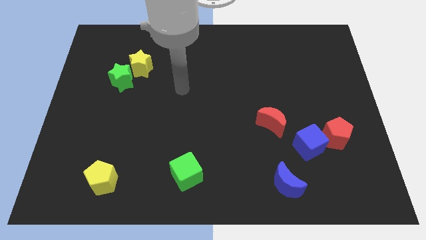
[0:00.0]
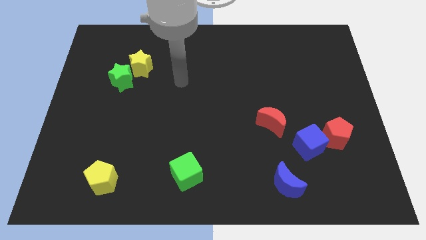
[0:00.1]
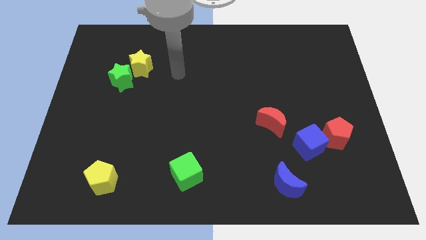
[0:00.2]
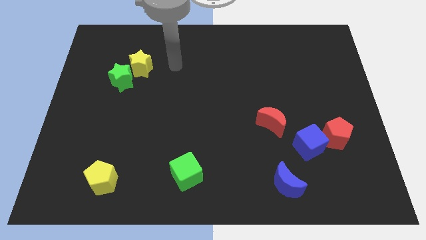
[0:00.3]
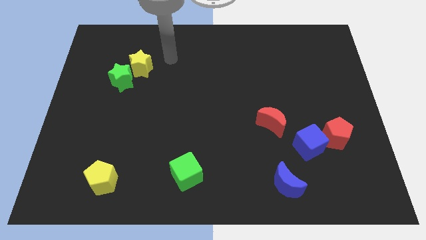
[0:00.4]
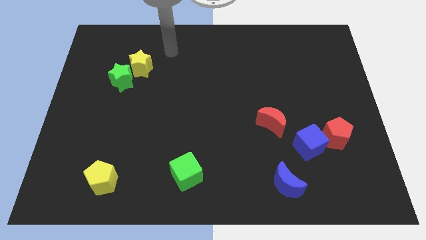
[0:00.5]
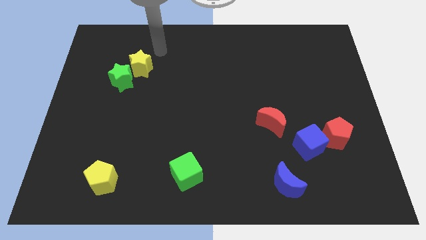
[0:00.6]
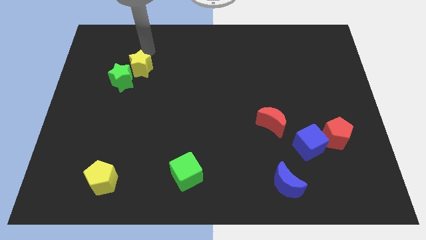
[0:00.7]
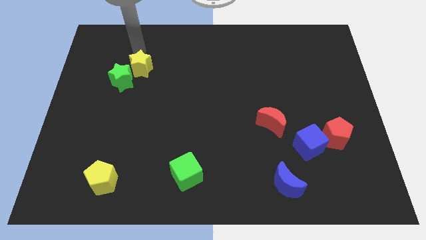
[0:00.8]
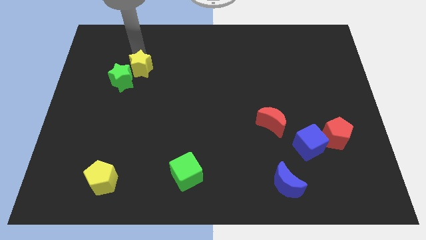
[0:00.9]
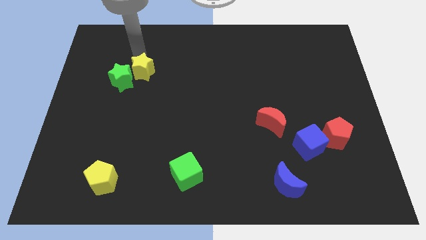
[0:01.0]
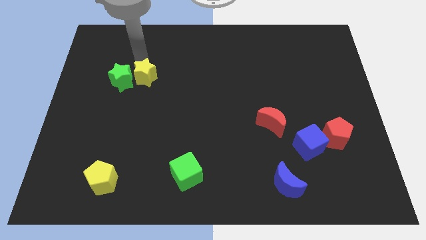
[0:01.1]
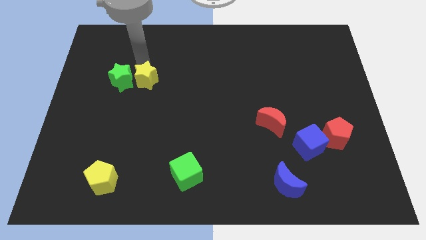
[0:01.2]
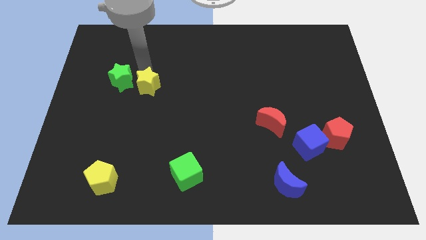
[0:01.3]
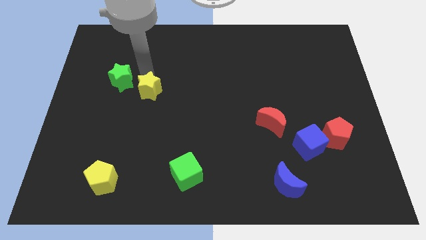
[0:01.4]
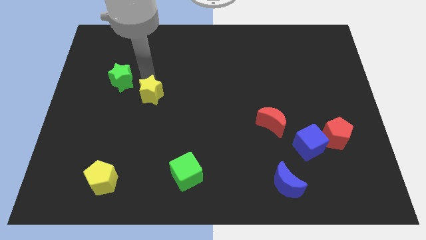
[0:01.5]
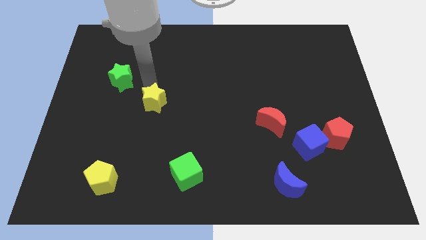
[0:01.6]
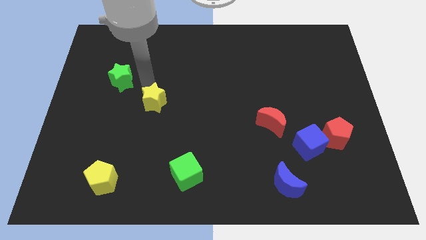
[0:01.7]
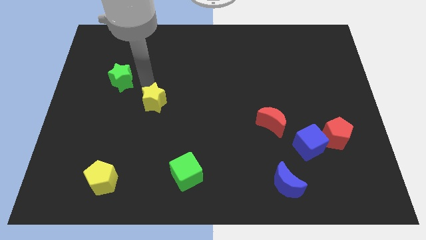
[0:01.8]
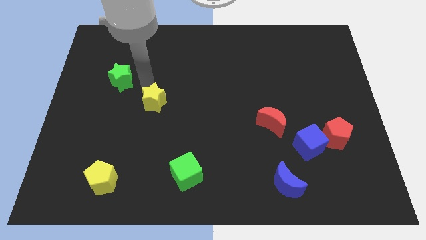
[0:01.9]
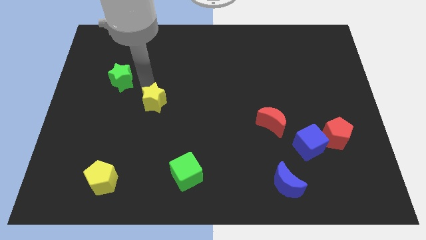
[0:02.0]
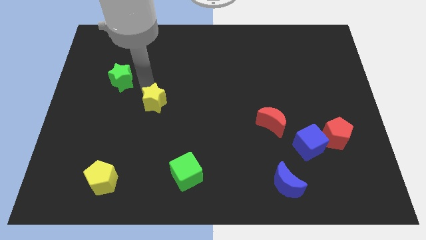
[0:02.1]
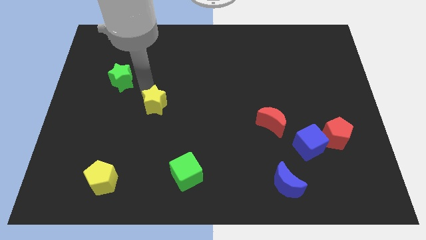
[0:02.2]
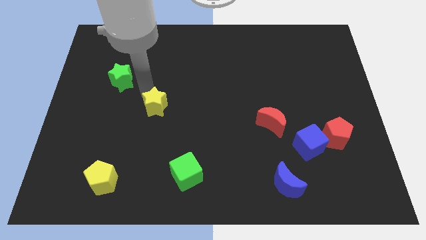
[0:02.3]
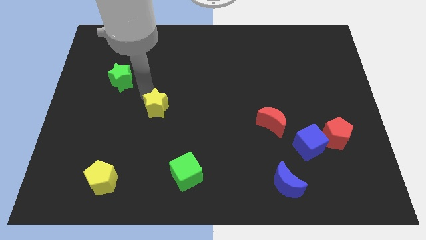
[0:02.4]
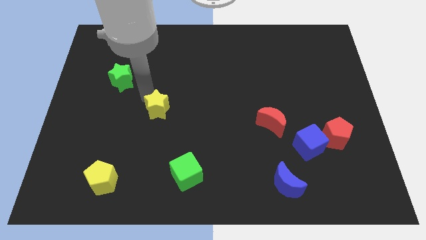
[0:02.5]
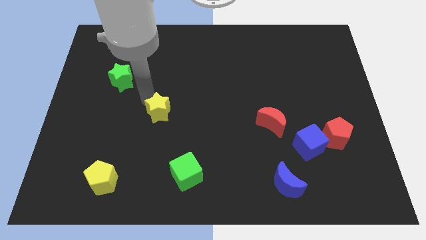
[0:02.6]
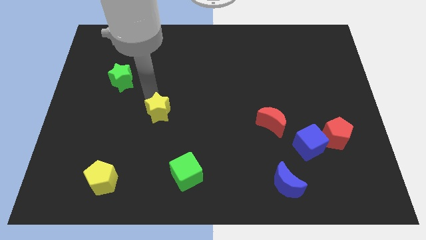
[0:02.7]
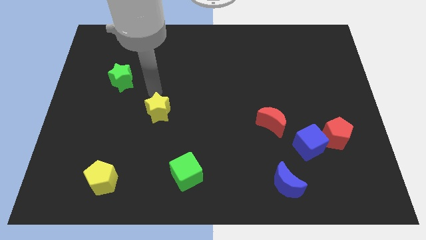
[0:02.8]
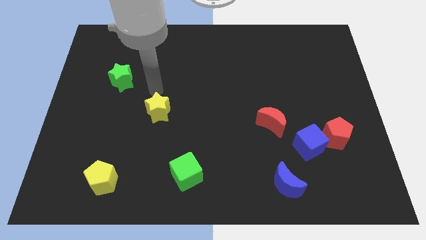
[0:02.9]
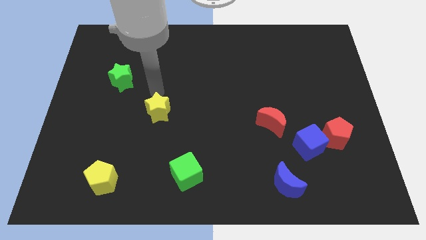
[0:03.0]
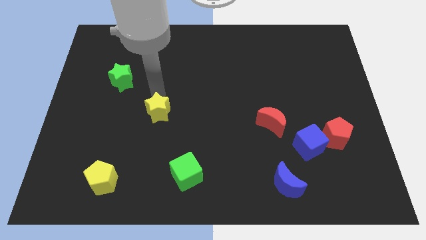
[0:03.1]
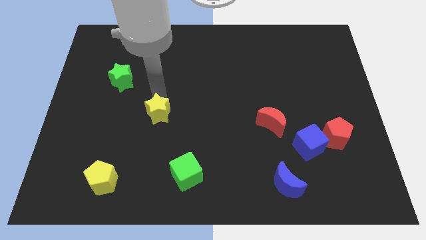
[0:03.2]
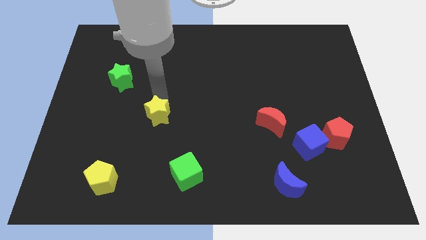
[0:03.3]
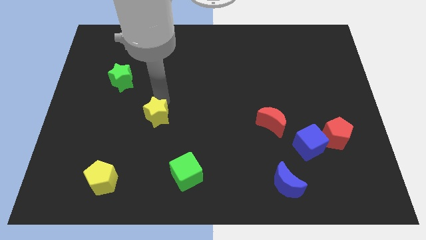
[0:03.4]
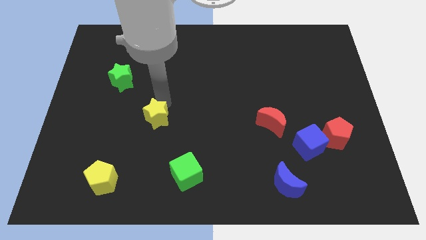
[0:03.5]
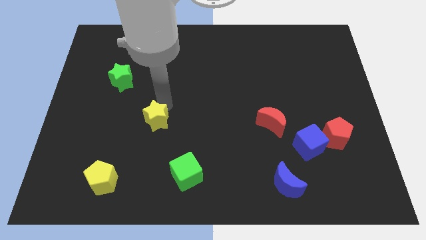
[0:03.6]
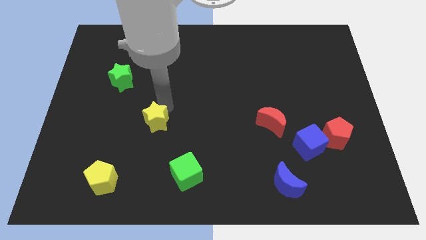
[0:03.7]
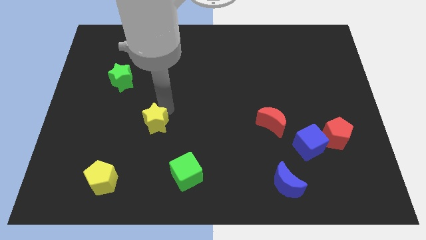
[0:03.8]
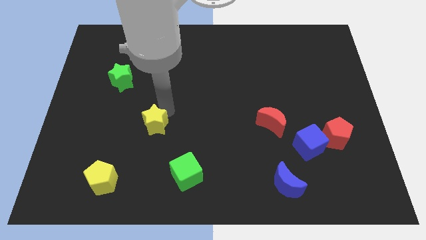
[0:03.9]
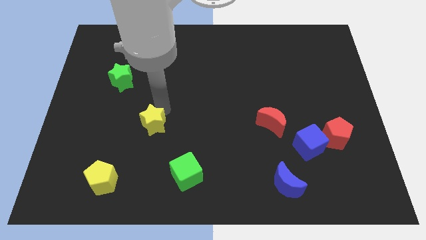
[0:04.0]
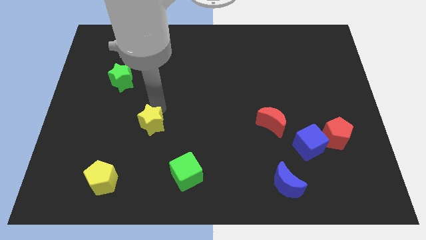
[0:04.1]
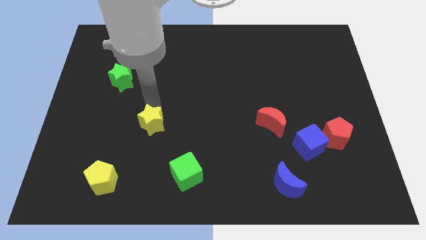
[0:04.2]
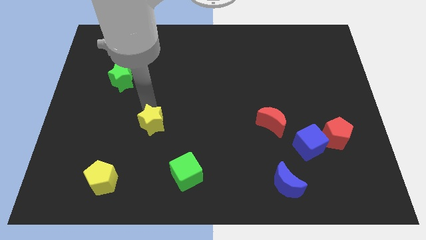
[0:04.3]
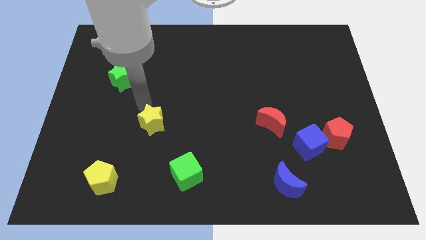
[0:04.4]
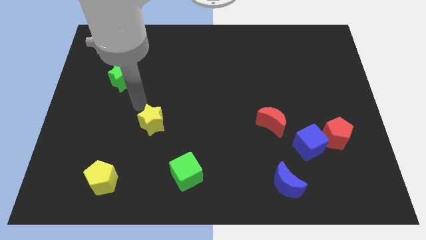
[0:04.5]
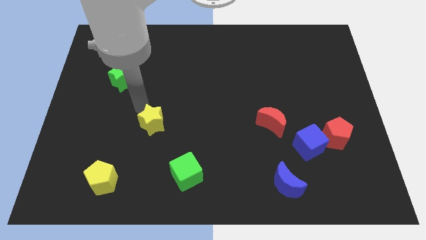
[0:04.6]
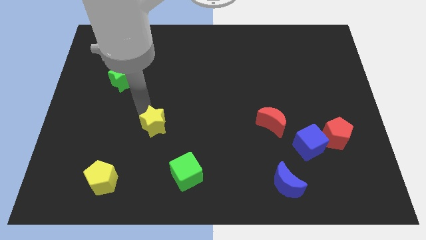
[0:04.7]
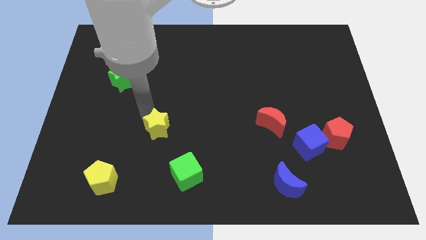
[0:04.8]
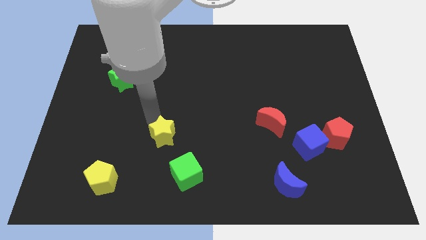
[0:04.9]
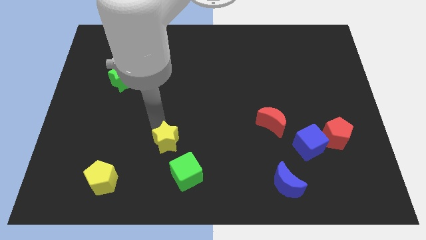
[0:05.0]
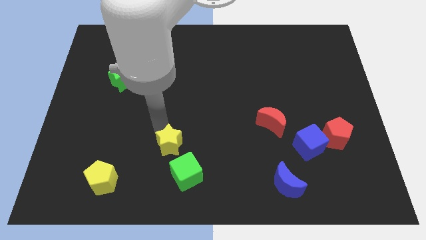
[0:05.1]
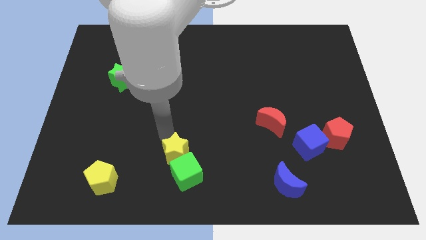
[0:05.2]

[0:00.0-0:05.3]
put the yellow star next to the green cube

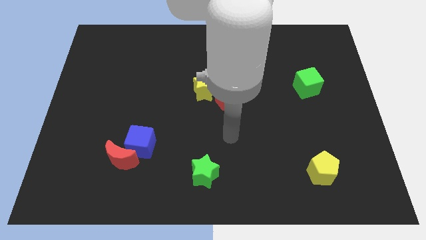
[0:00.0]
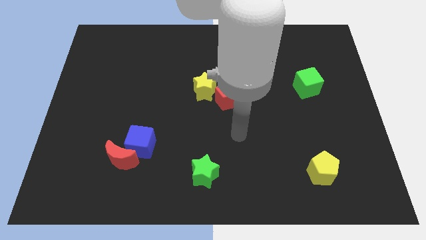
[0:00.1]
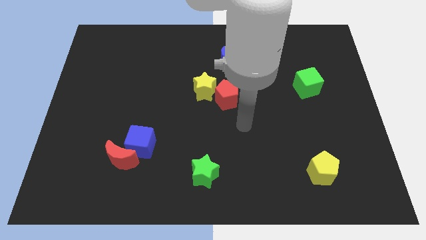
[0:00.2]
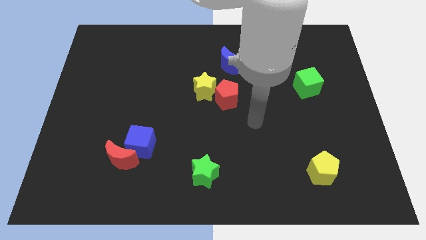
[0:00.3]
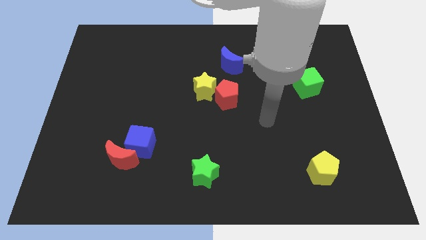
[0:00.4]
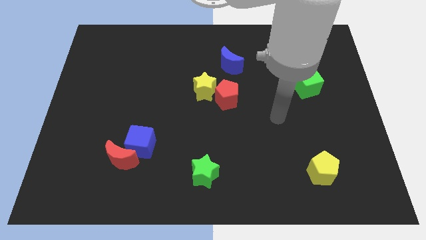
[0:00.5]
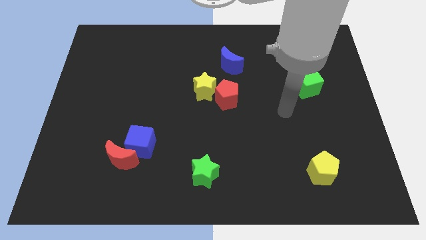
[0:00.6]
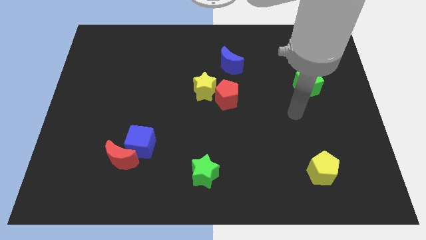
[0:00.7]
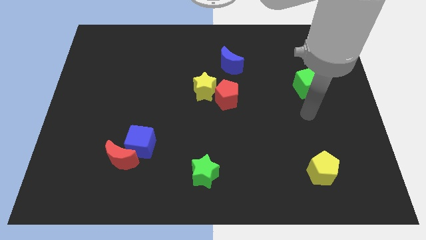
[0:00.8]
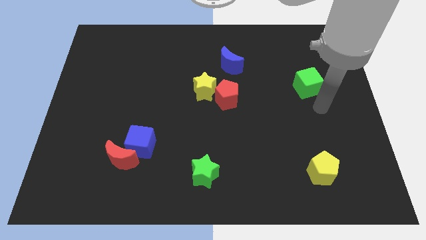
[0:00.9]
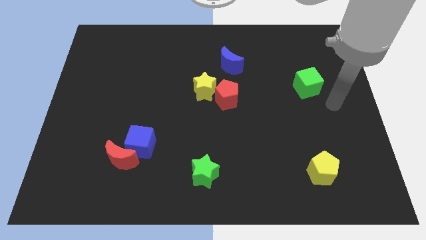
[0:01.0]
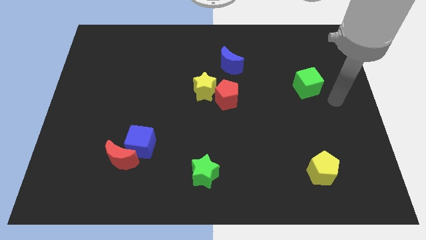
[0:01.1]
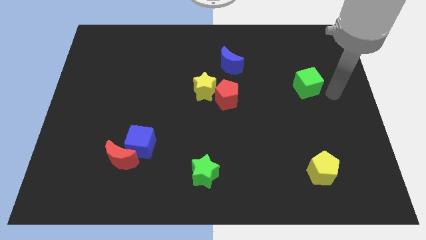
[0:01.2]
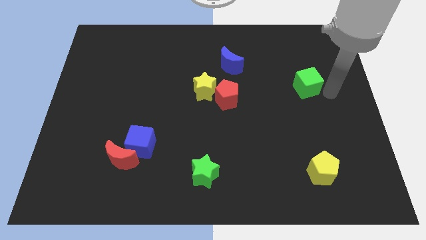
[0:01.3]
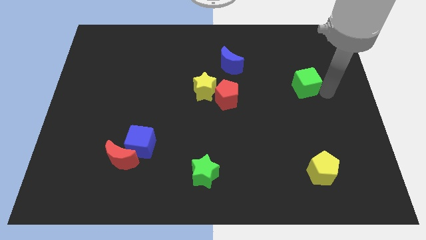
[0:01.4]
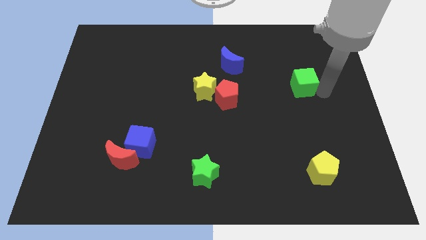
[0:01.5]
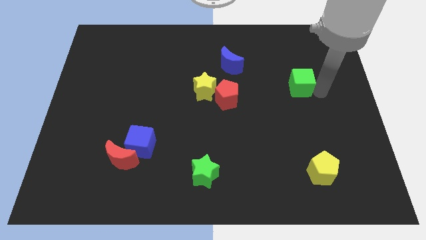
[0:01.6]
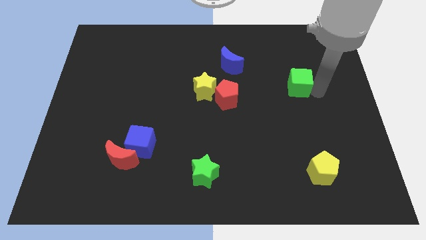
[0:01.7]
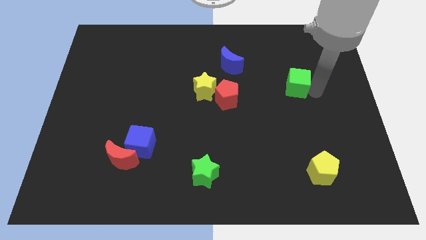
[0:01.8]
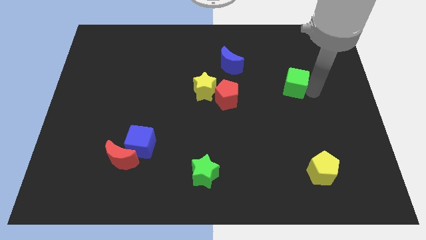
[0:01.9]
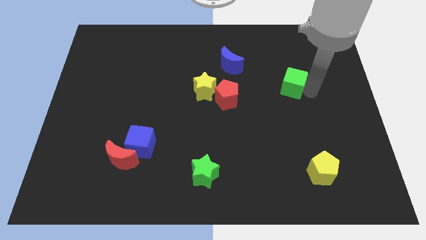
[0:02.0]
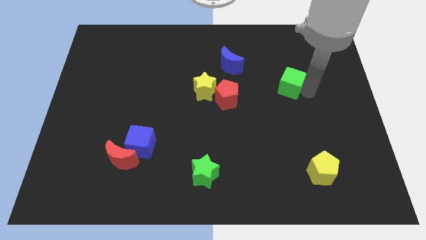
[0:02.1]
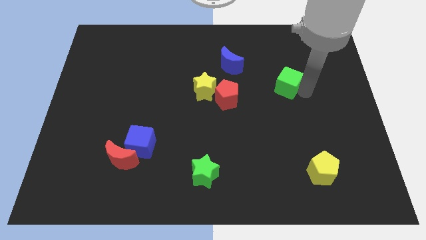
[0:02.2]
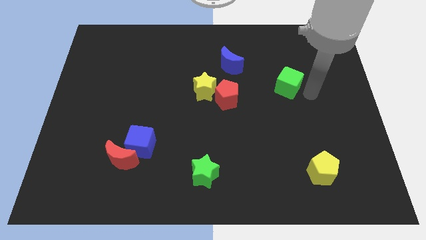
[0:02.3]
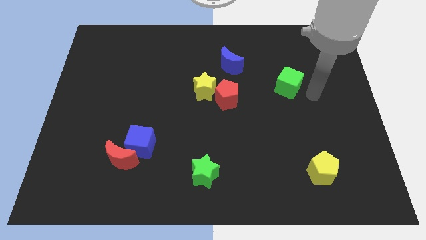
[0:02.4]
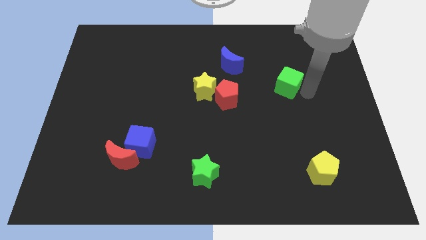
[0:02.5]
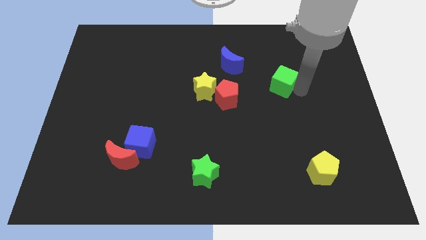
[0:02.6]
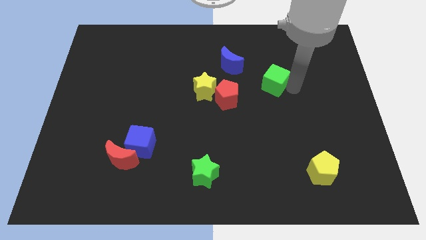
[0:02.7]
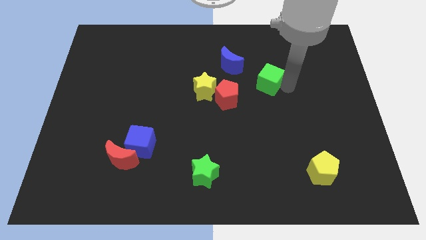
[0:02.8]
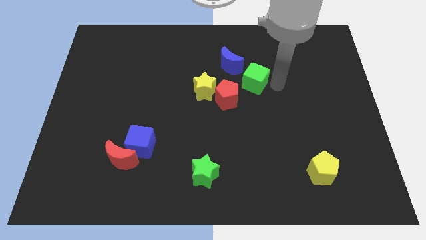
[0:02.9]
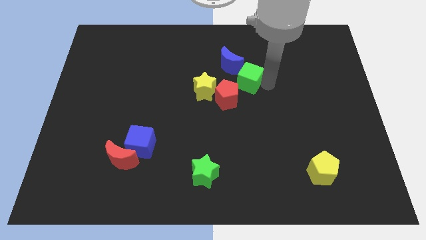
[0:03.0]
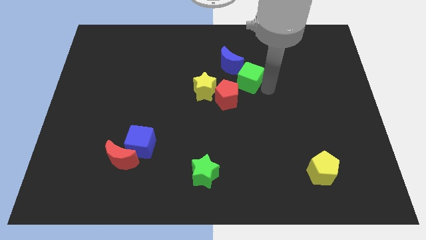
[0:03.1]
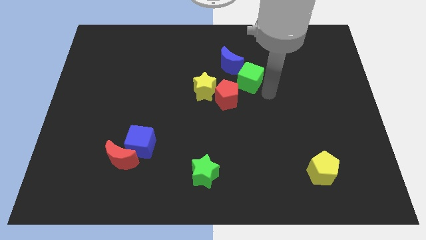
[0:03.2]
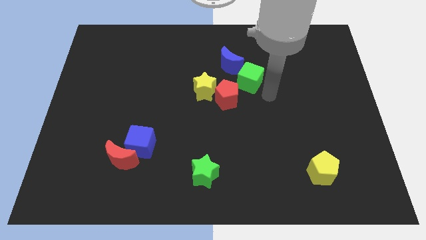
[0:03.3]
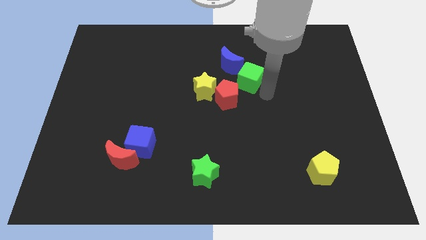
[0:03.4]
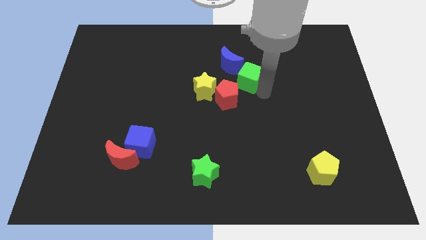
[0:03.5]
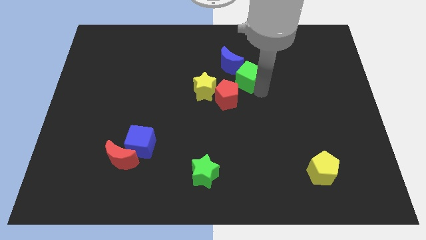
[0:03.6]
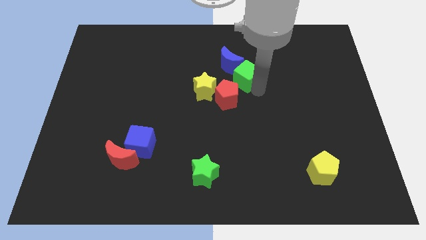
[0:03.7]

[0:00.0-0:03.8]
push the green cube towards the blue moon
